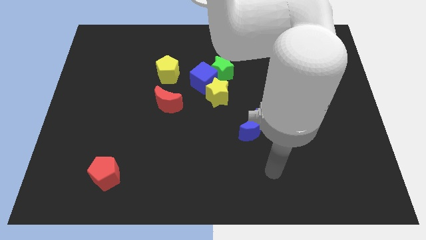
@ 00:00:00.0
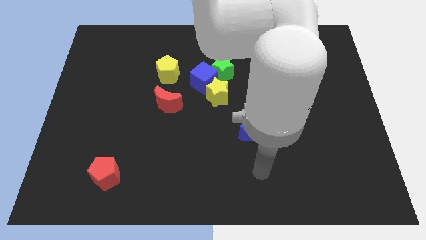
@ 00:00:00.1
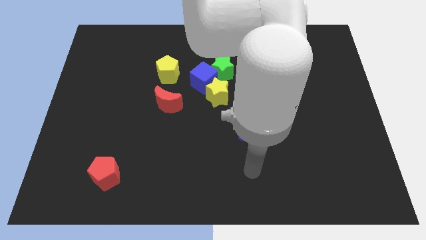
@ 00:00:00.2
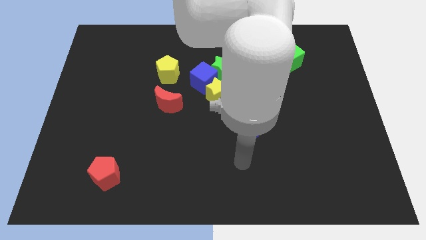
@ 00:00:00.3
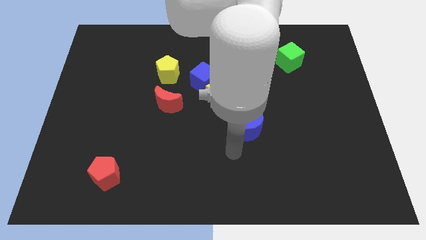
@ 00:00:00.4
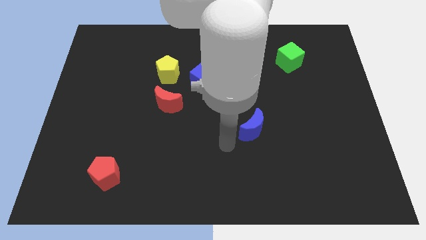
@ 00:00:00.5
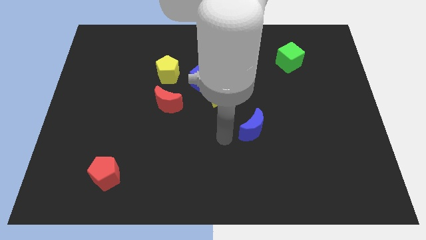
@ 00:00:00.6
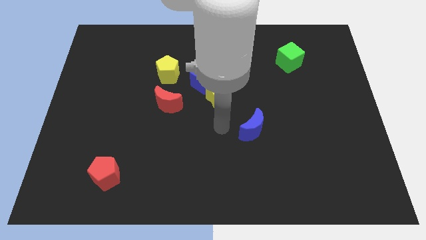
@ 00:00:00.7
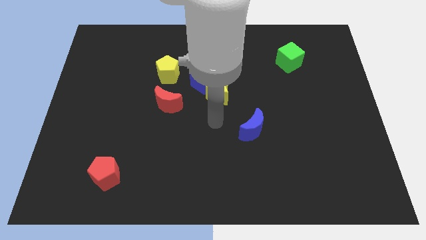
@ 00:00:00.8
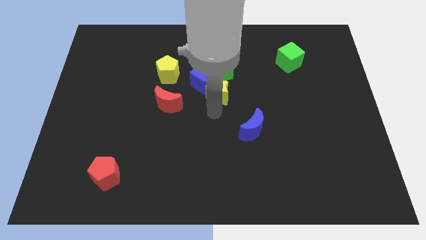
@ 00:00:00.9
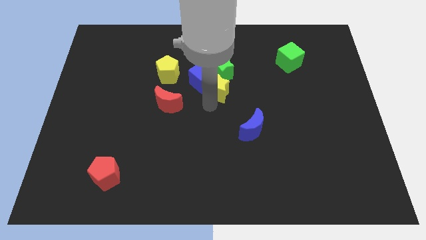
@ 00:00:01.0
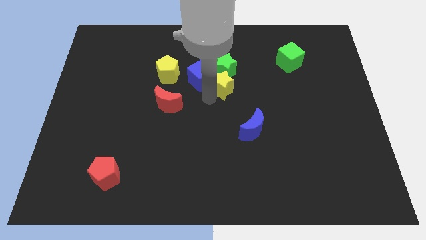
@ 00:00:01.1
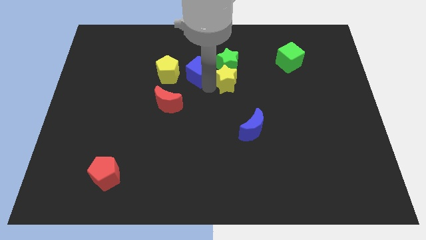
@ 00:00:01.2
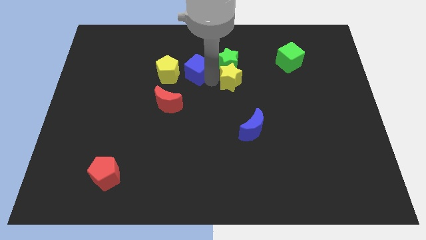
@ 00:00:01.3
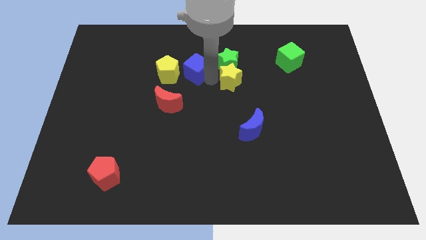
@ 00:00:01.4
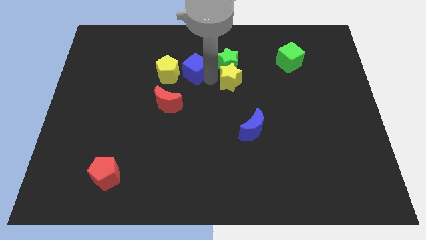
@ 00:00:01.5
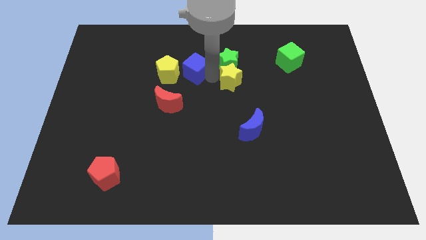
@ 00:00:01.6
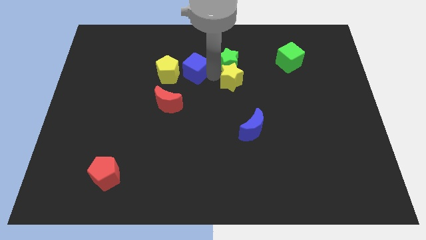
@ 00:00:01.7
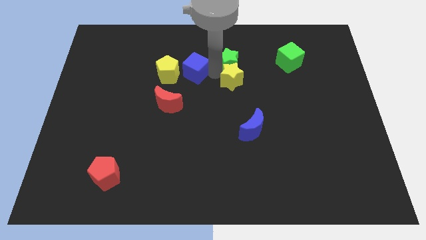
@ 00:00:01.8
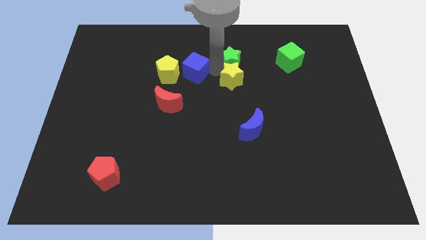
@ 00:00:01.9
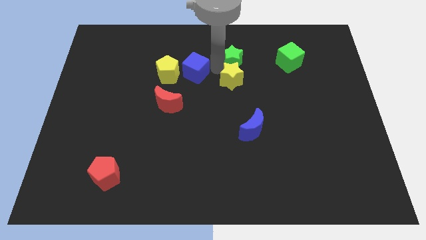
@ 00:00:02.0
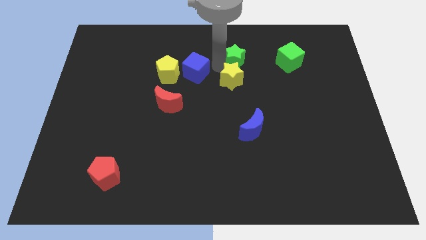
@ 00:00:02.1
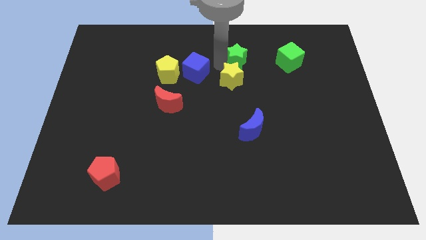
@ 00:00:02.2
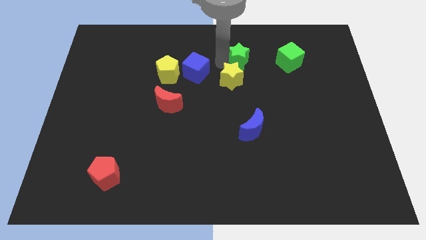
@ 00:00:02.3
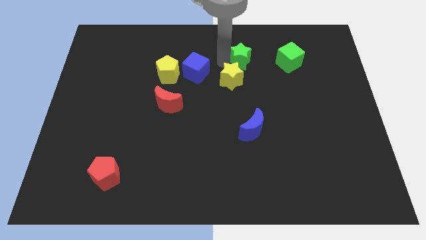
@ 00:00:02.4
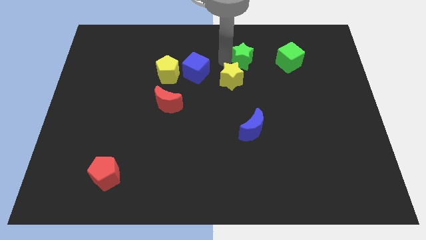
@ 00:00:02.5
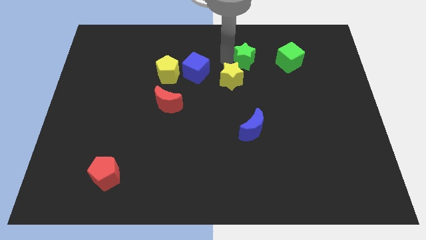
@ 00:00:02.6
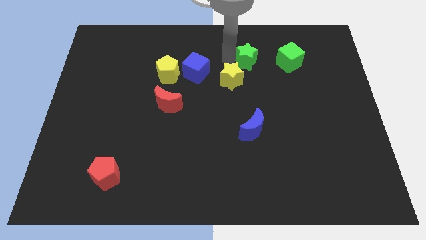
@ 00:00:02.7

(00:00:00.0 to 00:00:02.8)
move the green star away from the blue cube and yellow star

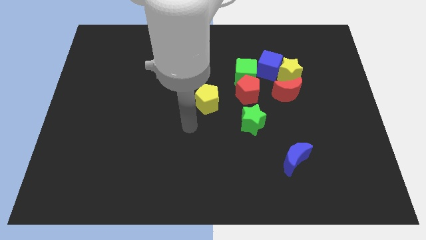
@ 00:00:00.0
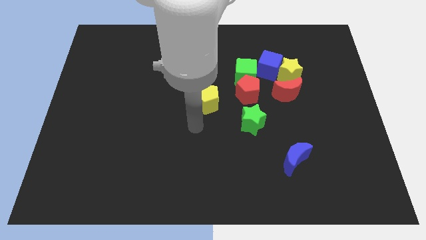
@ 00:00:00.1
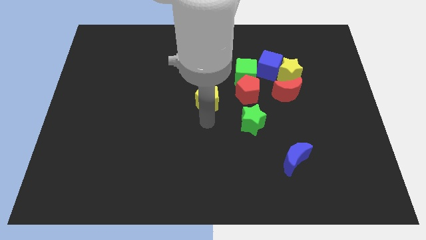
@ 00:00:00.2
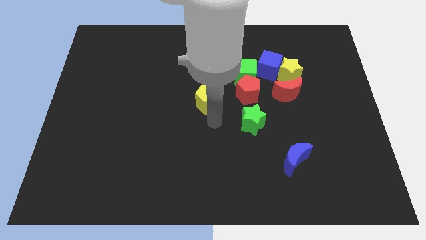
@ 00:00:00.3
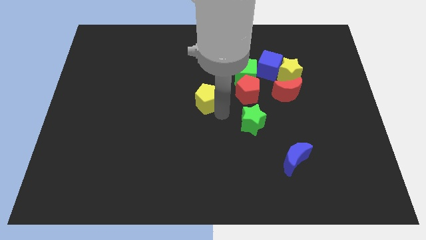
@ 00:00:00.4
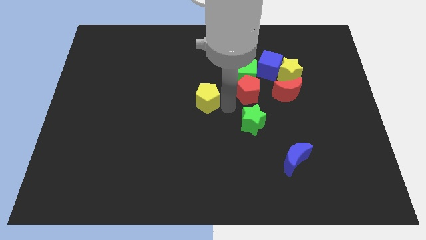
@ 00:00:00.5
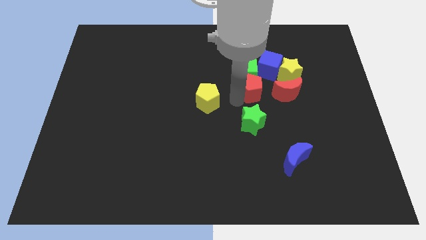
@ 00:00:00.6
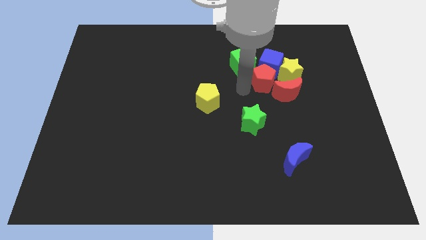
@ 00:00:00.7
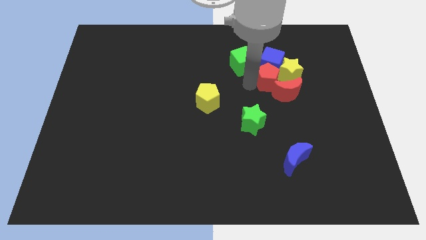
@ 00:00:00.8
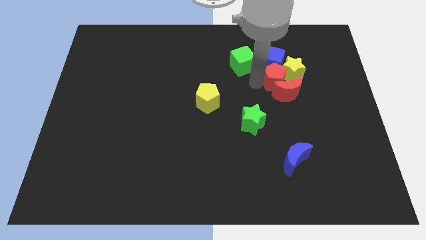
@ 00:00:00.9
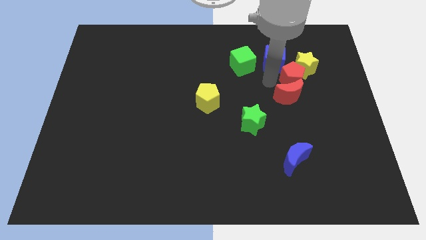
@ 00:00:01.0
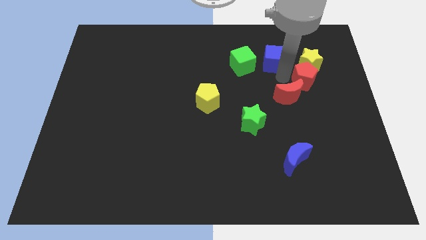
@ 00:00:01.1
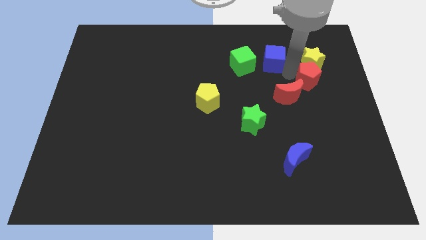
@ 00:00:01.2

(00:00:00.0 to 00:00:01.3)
separate the yellow star from the blue cube and red moon

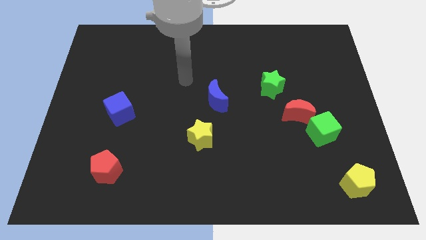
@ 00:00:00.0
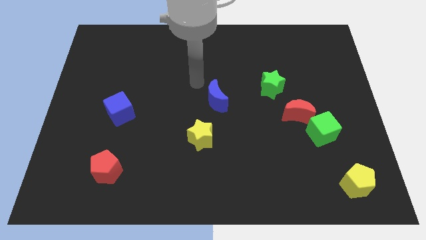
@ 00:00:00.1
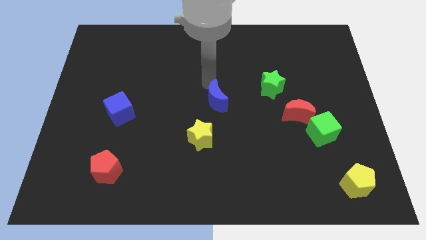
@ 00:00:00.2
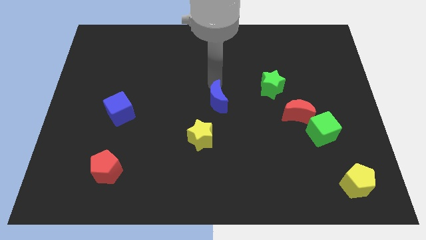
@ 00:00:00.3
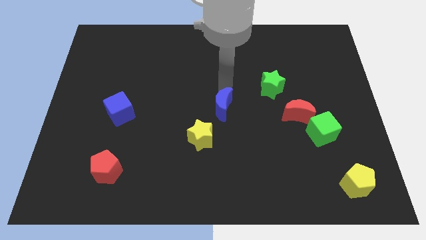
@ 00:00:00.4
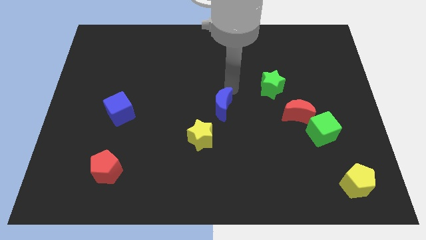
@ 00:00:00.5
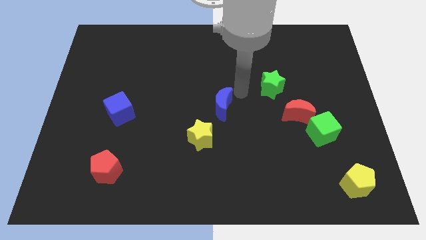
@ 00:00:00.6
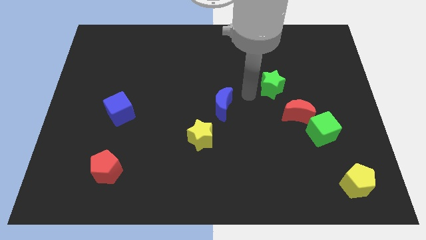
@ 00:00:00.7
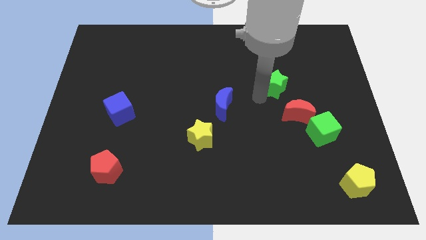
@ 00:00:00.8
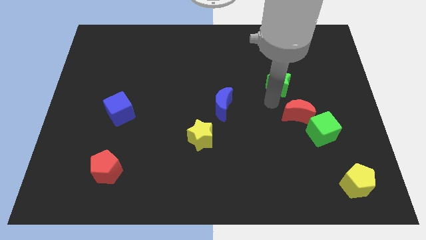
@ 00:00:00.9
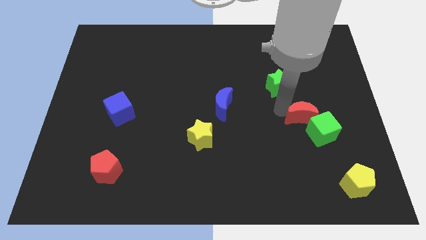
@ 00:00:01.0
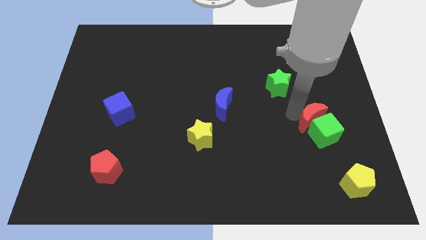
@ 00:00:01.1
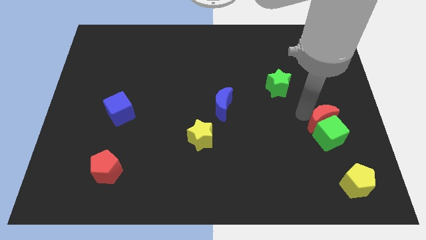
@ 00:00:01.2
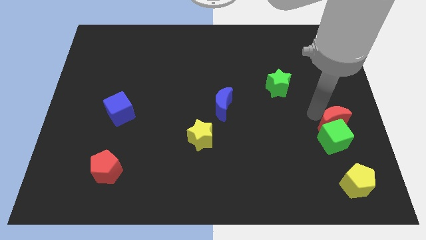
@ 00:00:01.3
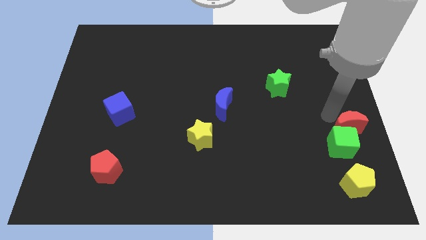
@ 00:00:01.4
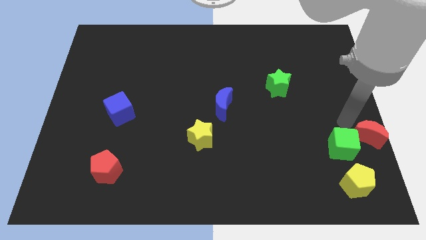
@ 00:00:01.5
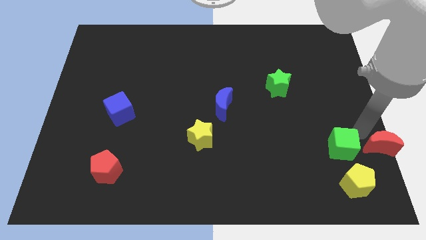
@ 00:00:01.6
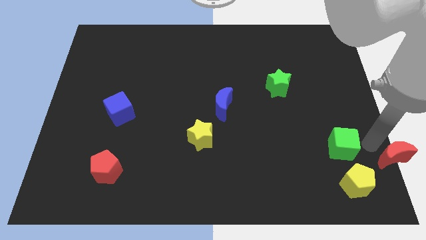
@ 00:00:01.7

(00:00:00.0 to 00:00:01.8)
separate the green cube from the red moon

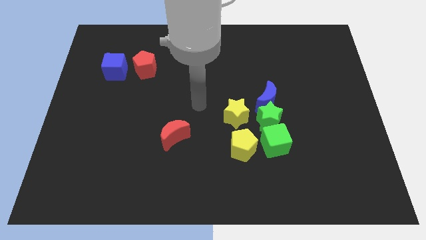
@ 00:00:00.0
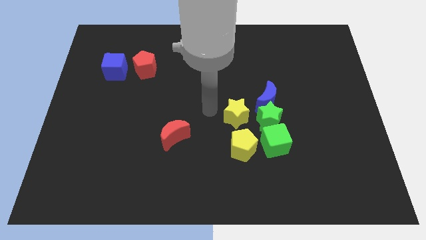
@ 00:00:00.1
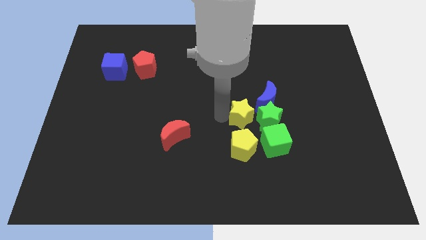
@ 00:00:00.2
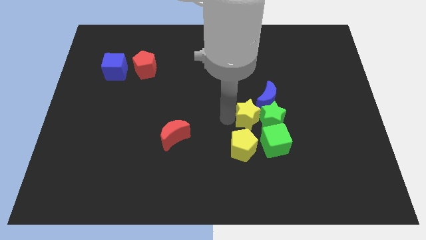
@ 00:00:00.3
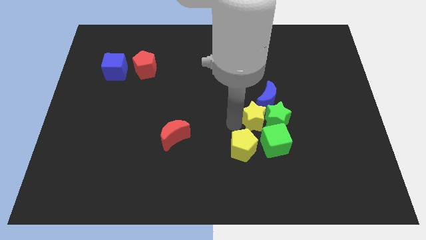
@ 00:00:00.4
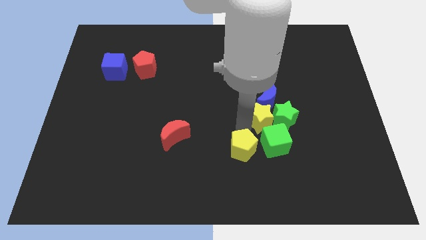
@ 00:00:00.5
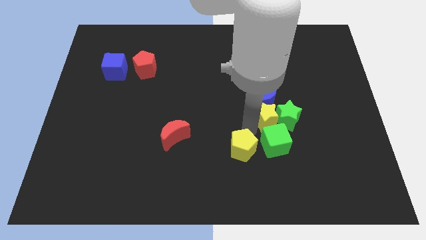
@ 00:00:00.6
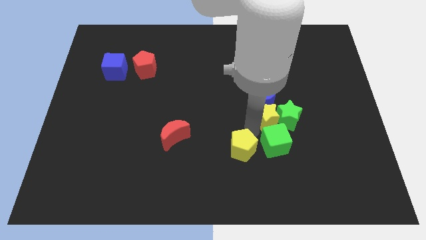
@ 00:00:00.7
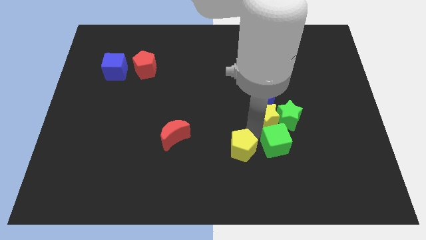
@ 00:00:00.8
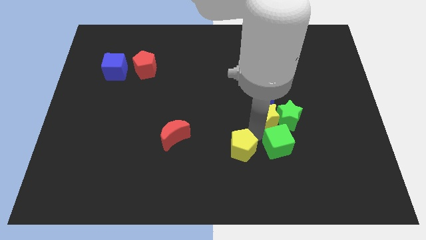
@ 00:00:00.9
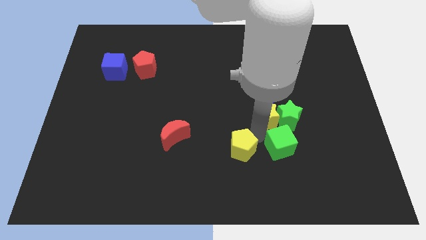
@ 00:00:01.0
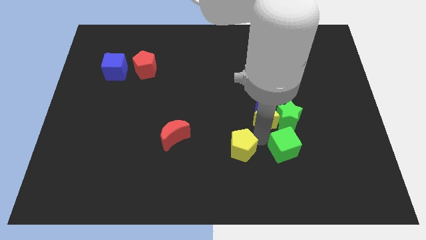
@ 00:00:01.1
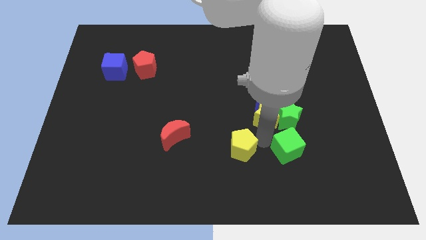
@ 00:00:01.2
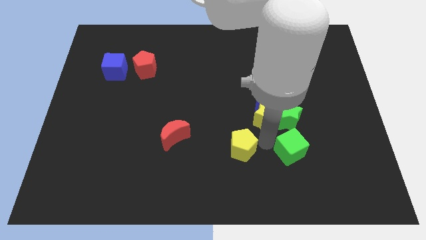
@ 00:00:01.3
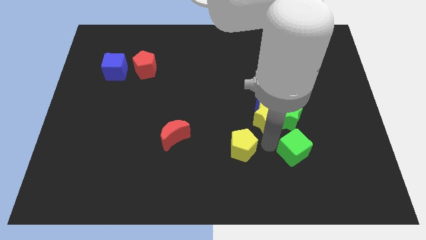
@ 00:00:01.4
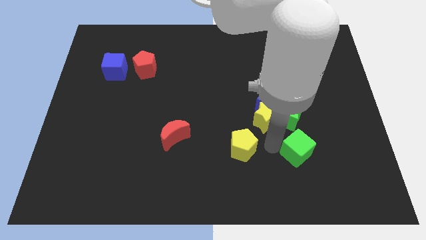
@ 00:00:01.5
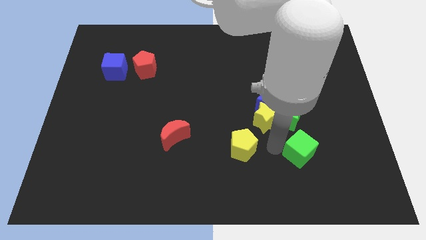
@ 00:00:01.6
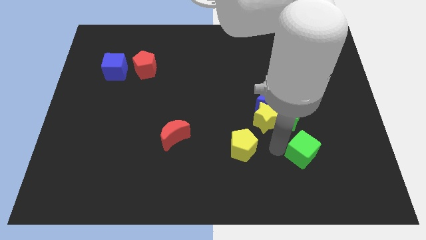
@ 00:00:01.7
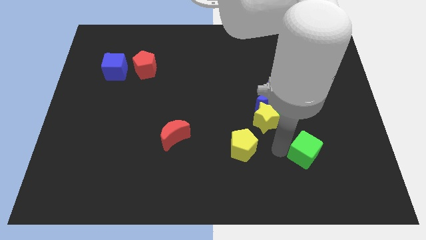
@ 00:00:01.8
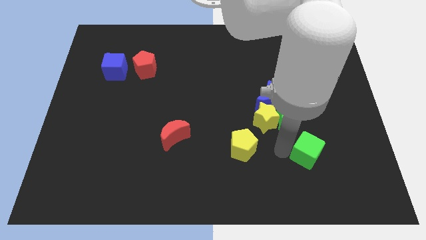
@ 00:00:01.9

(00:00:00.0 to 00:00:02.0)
separate the green cube from the green star and yellow pentagon

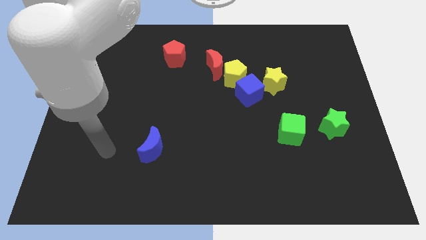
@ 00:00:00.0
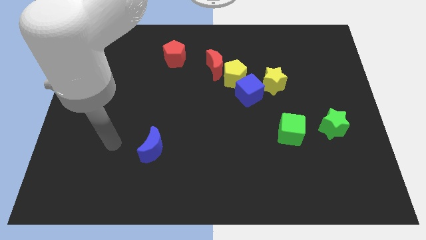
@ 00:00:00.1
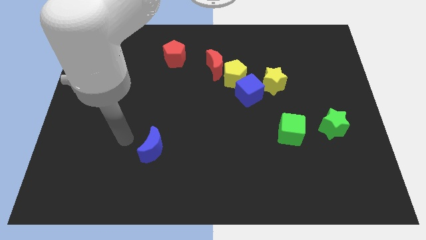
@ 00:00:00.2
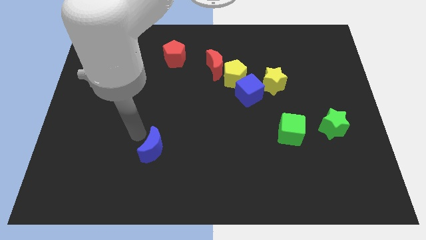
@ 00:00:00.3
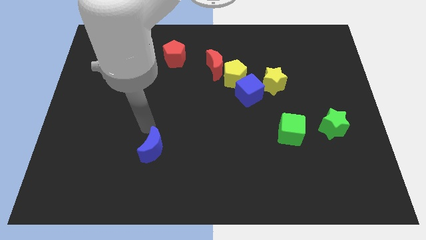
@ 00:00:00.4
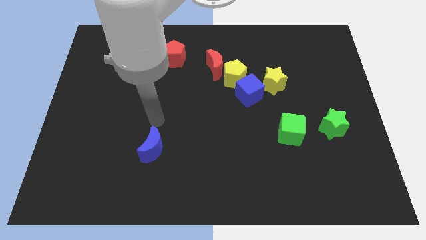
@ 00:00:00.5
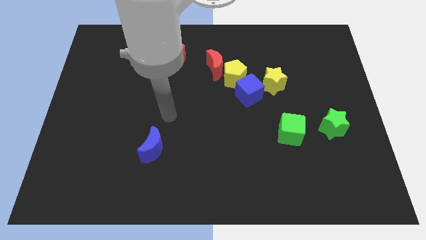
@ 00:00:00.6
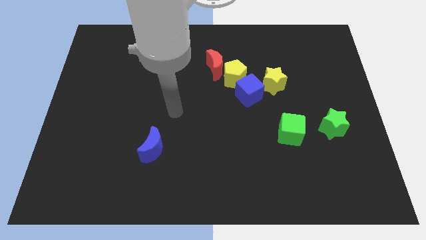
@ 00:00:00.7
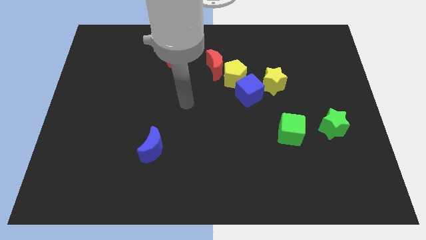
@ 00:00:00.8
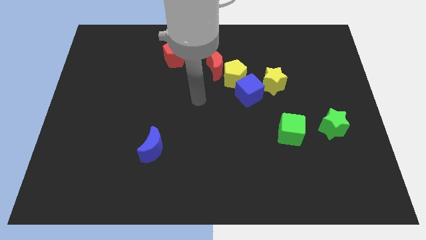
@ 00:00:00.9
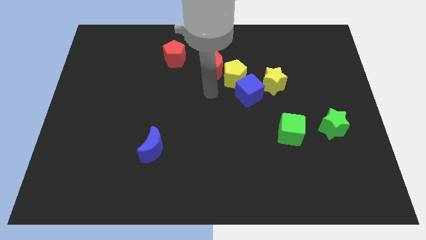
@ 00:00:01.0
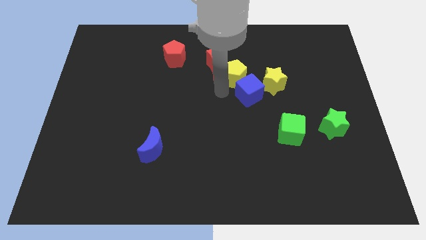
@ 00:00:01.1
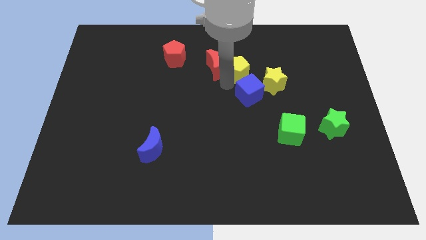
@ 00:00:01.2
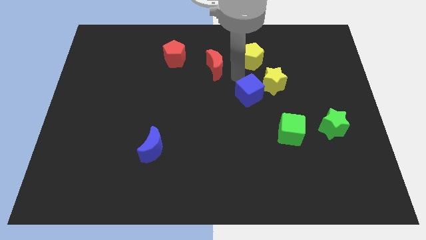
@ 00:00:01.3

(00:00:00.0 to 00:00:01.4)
move the red moon away from the yellow pentagon
